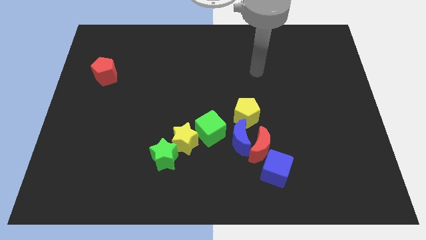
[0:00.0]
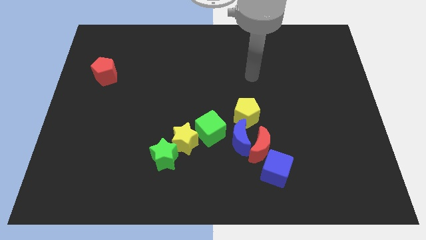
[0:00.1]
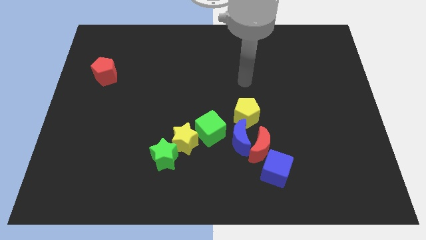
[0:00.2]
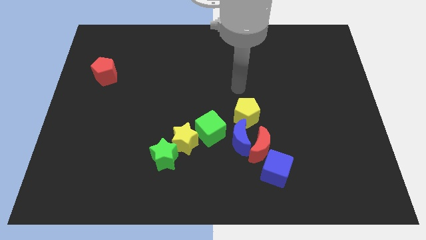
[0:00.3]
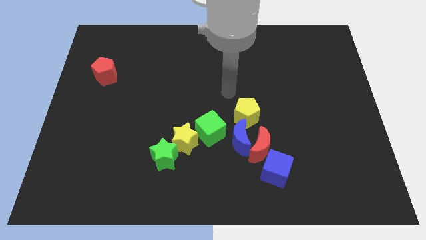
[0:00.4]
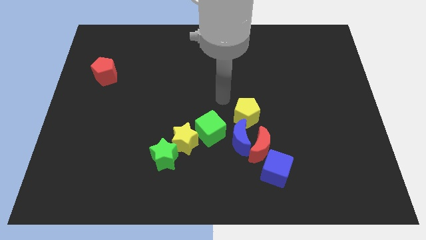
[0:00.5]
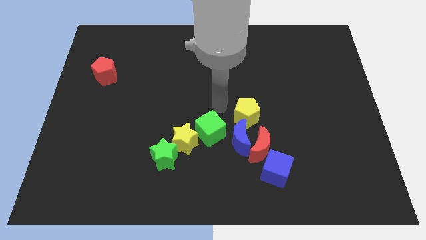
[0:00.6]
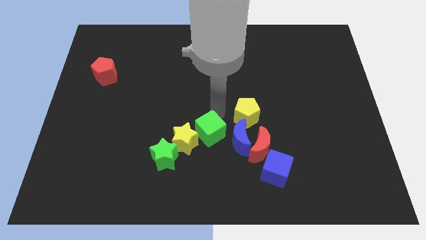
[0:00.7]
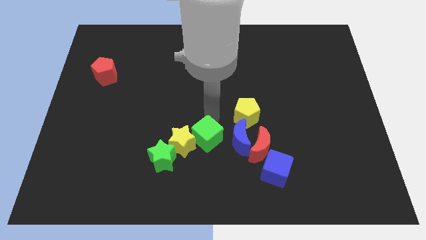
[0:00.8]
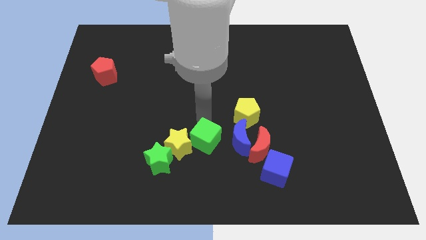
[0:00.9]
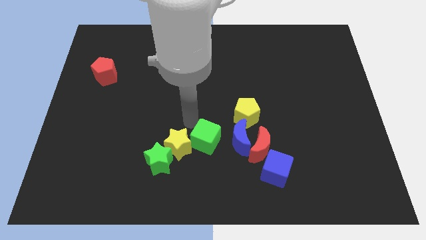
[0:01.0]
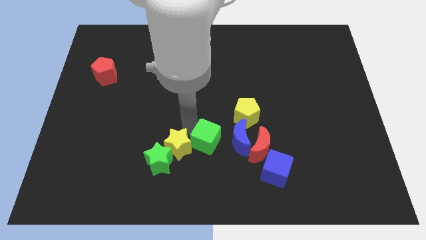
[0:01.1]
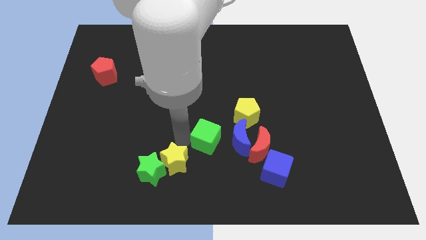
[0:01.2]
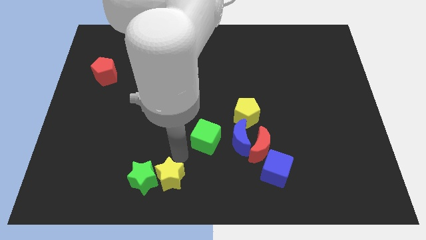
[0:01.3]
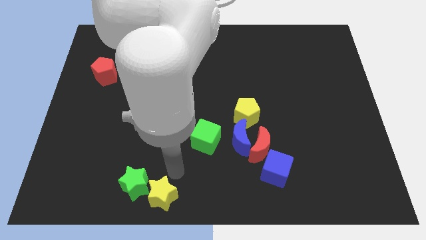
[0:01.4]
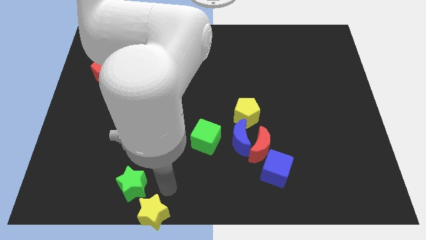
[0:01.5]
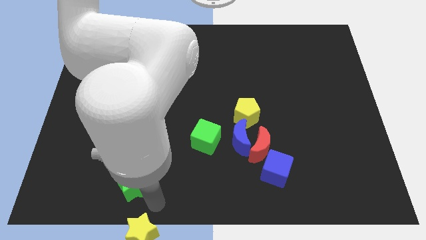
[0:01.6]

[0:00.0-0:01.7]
pull the green star apart from the yellow star

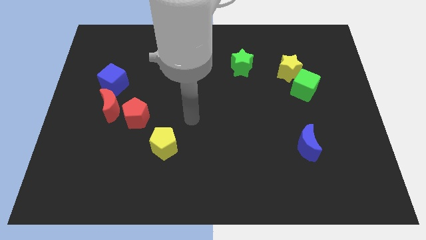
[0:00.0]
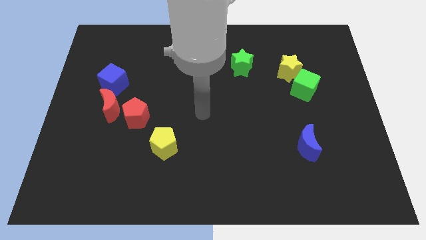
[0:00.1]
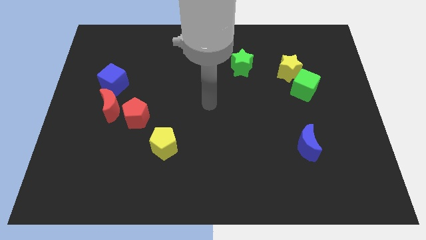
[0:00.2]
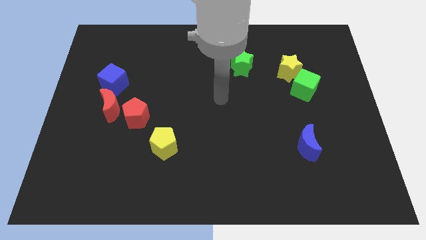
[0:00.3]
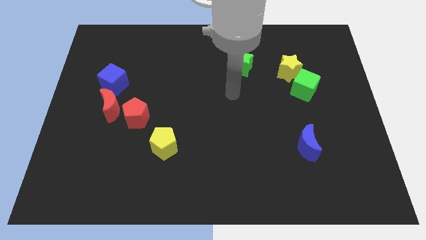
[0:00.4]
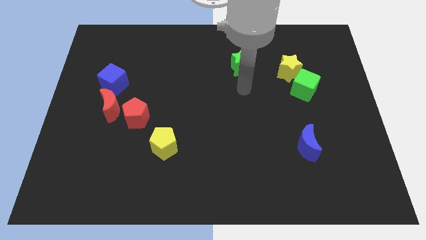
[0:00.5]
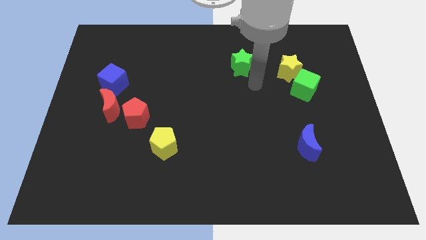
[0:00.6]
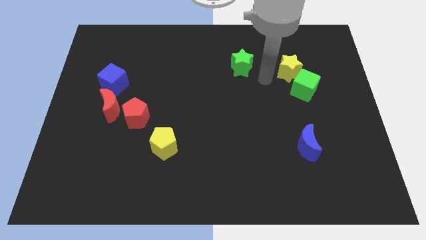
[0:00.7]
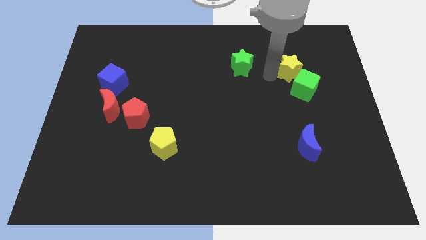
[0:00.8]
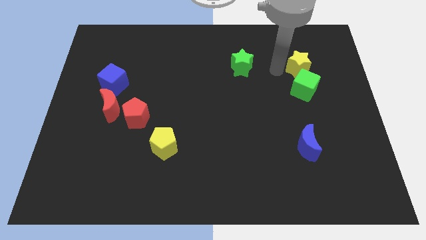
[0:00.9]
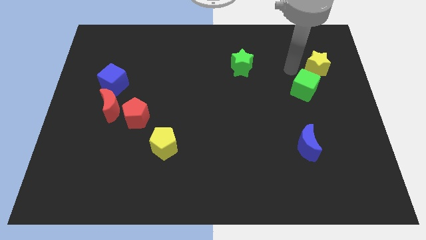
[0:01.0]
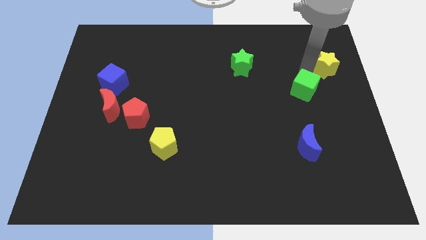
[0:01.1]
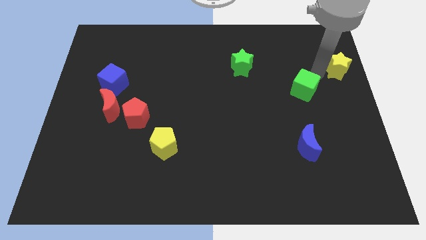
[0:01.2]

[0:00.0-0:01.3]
move the green cube away from the yellow star

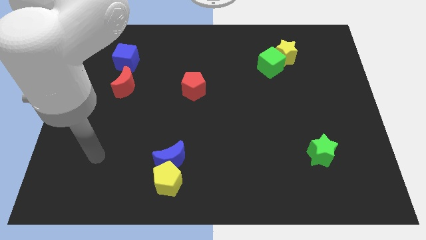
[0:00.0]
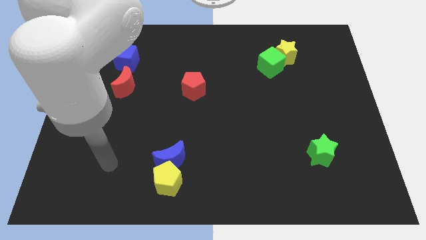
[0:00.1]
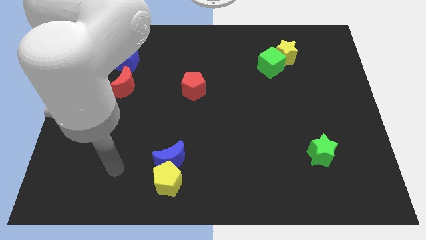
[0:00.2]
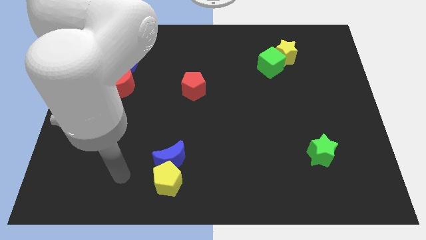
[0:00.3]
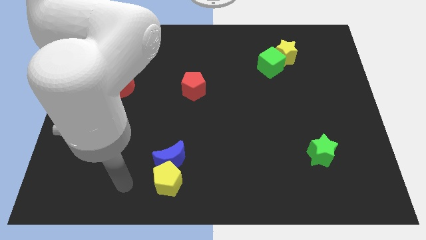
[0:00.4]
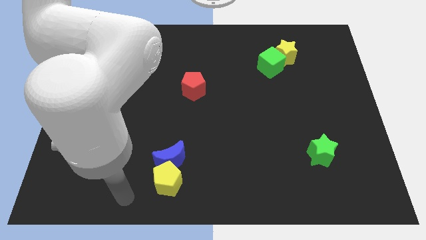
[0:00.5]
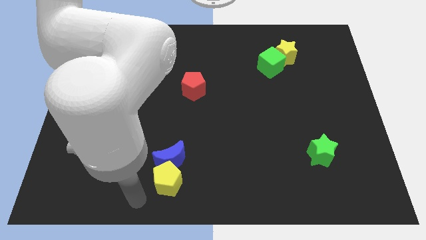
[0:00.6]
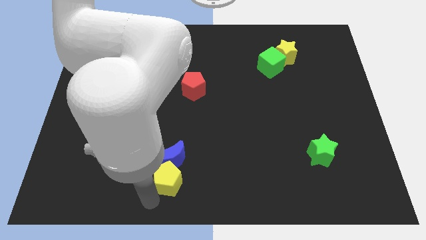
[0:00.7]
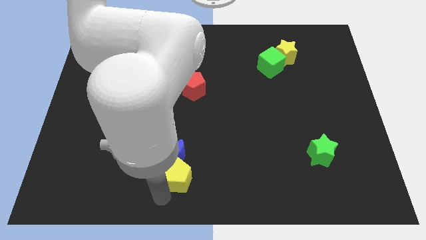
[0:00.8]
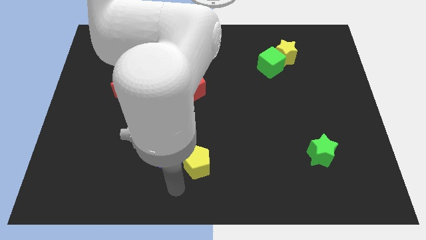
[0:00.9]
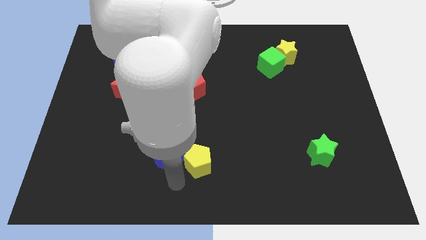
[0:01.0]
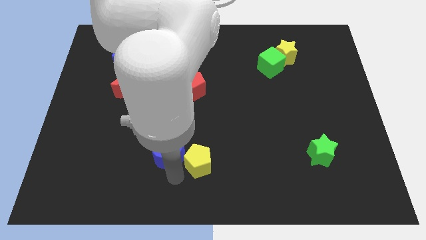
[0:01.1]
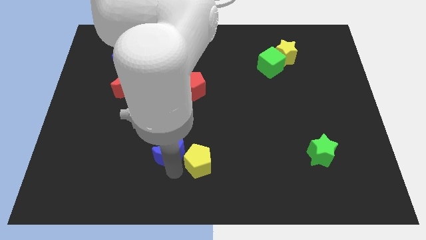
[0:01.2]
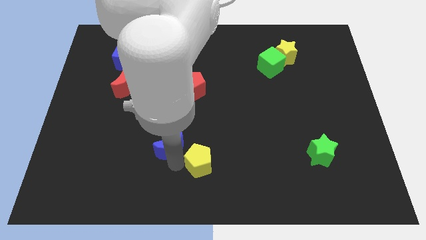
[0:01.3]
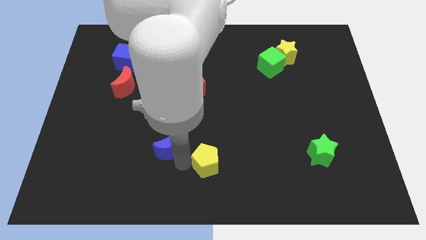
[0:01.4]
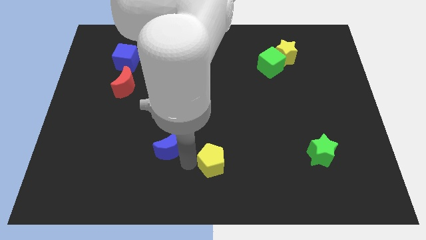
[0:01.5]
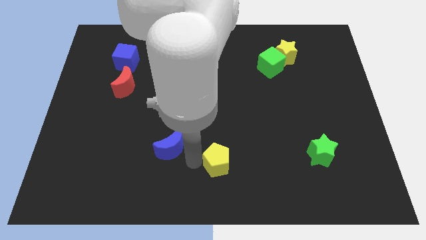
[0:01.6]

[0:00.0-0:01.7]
pull the blue moon apart from the yellow pentagon

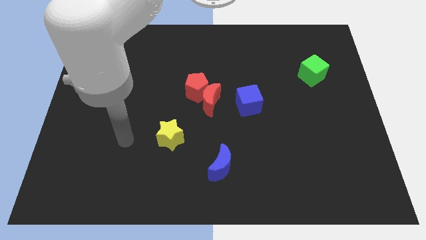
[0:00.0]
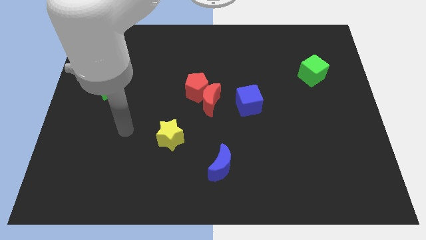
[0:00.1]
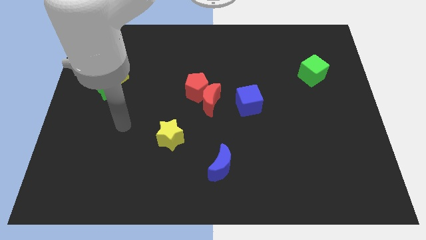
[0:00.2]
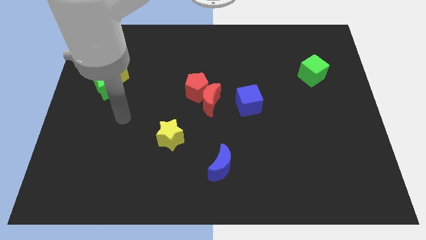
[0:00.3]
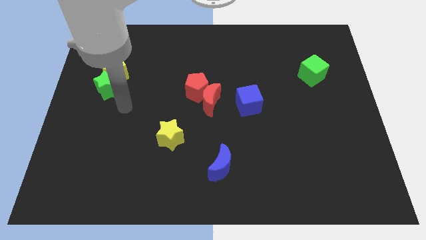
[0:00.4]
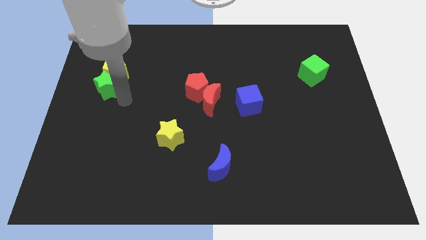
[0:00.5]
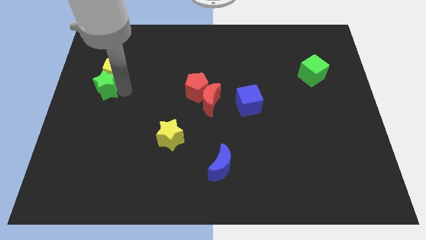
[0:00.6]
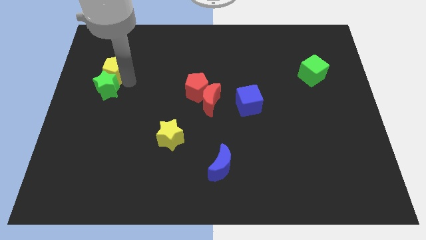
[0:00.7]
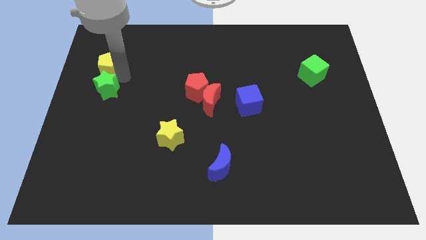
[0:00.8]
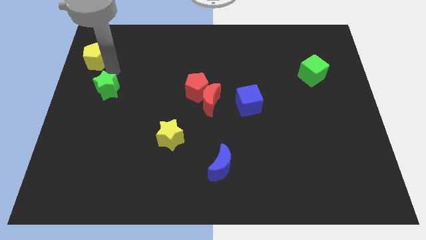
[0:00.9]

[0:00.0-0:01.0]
separate the green star from the yellow pentagon

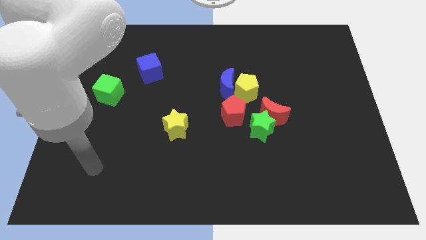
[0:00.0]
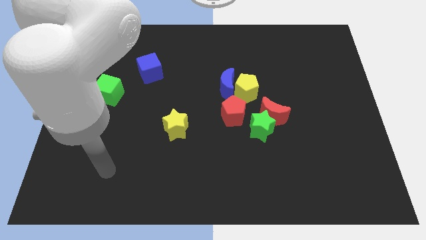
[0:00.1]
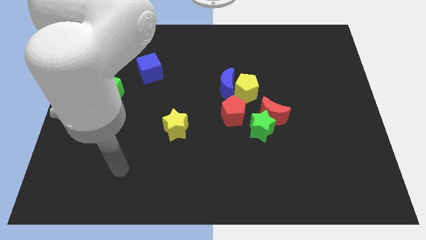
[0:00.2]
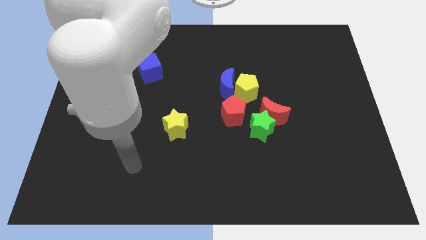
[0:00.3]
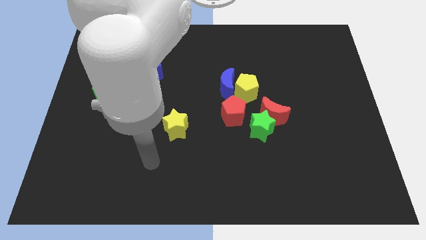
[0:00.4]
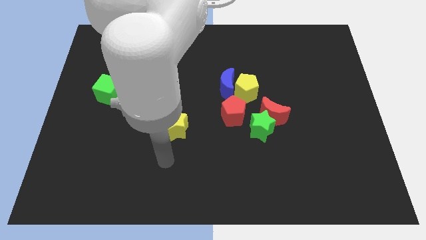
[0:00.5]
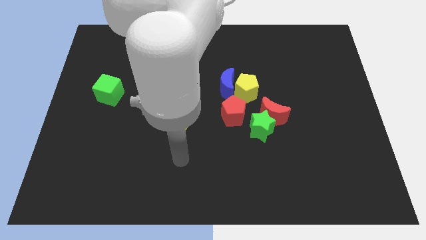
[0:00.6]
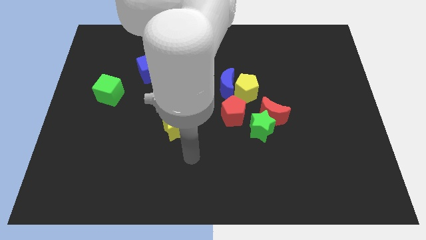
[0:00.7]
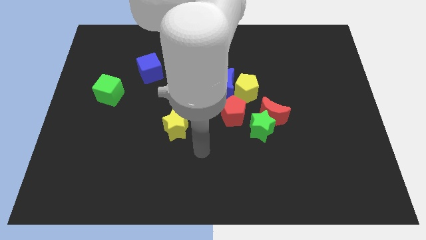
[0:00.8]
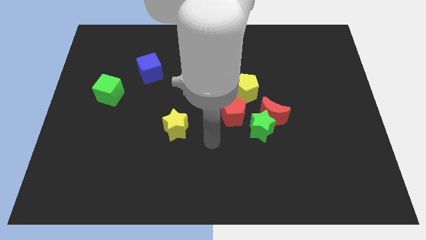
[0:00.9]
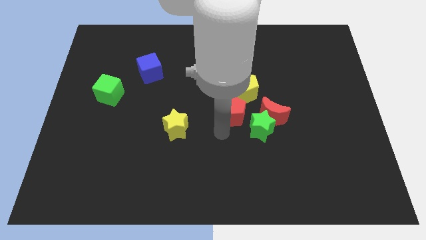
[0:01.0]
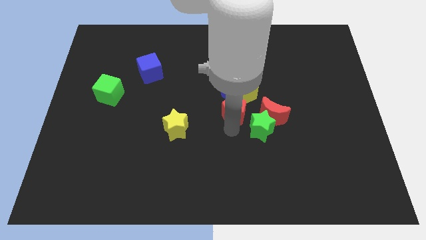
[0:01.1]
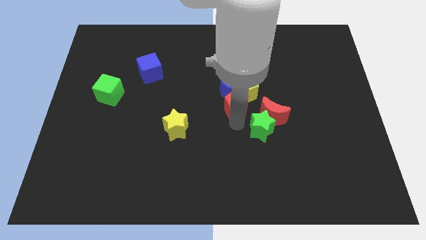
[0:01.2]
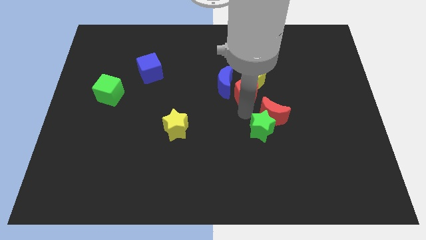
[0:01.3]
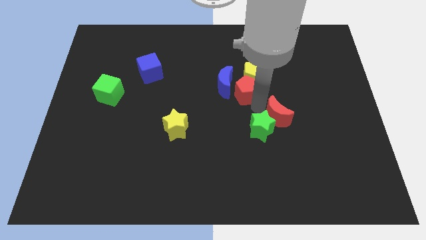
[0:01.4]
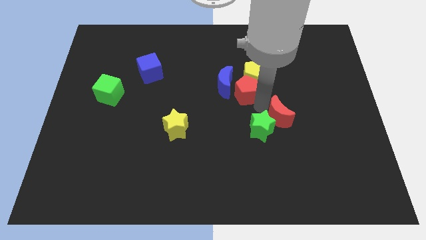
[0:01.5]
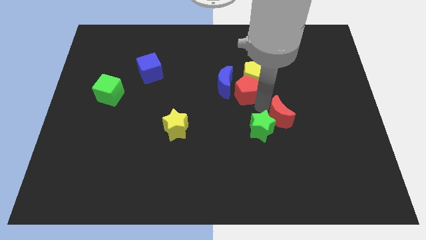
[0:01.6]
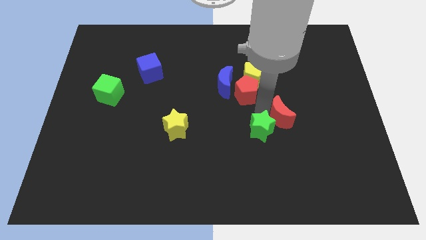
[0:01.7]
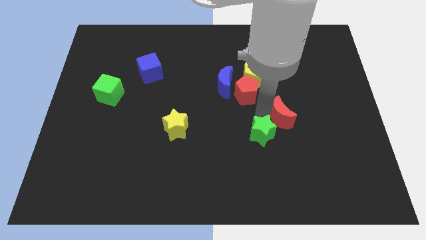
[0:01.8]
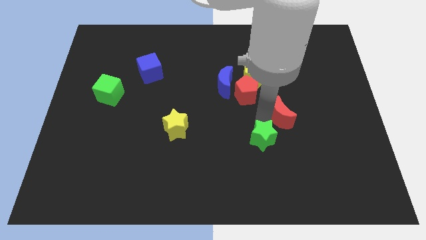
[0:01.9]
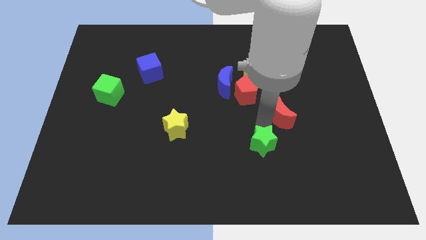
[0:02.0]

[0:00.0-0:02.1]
separate the green star from the red moon and red pentagon

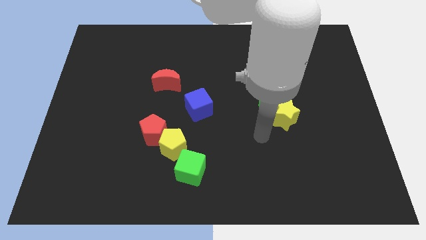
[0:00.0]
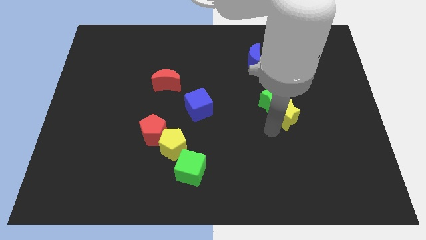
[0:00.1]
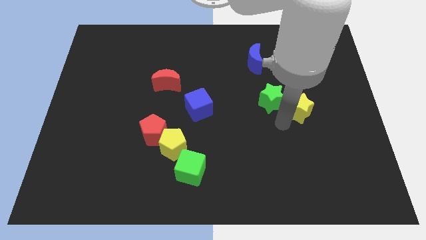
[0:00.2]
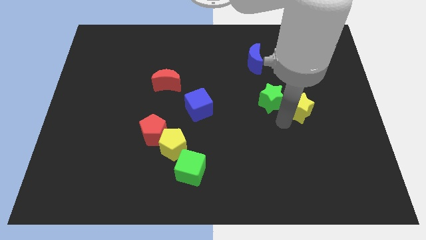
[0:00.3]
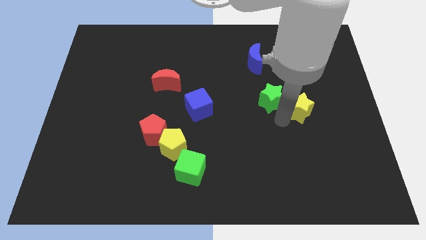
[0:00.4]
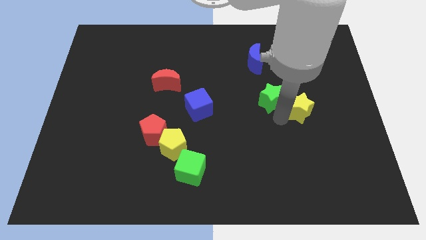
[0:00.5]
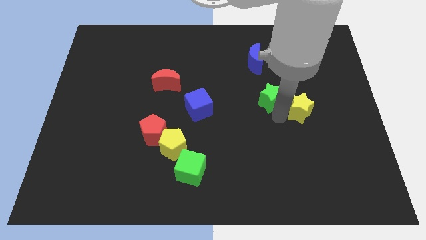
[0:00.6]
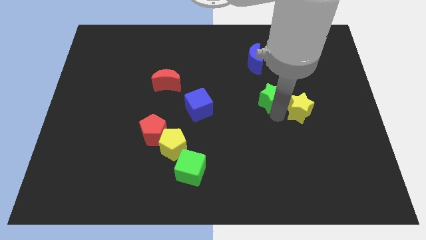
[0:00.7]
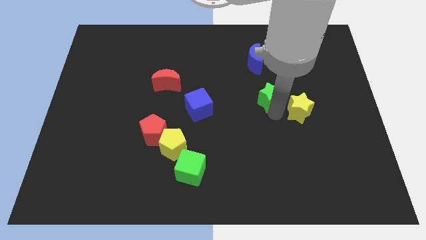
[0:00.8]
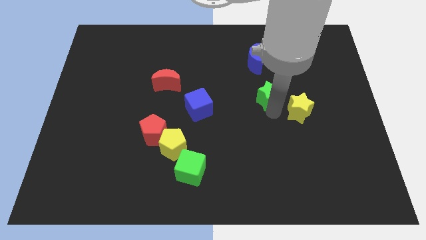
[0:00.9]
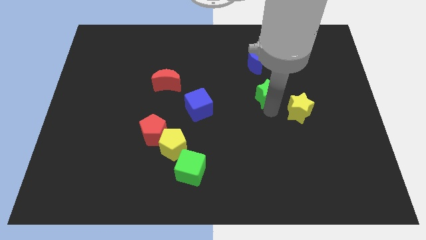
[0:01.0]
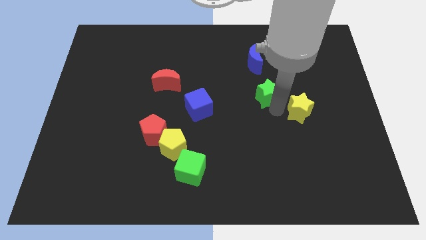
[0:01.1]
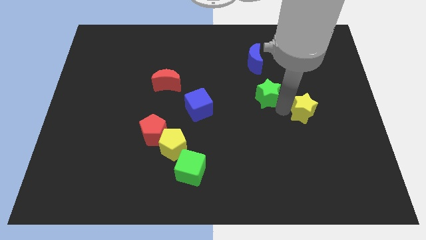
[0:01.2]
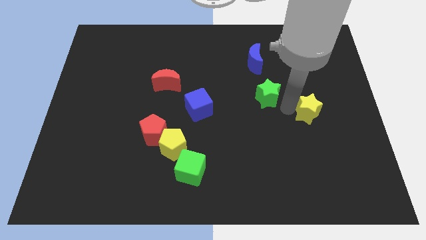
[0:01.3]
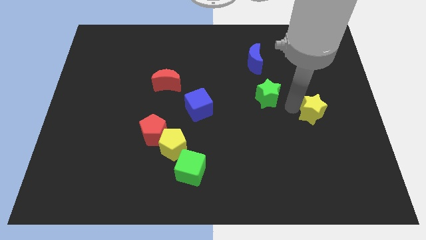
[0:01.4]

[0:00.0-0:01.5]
separate the green star from the yellow star
